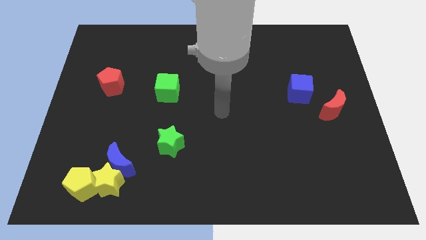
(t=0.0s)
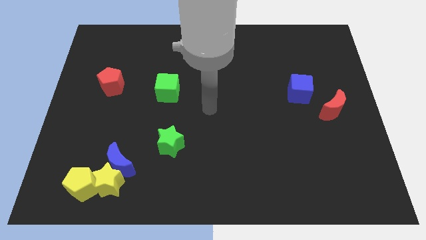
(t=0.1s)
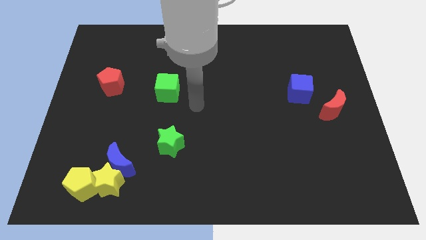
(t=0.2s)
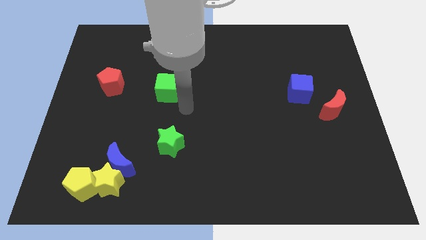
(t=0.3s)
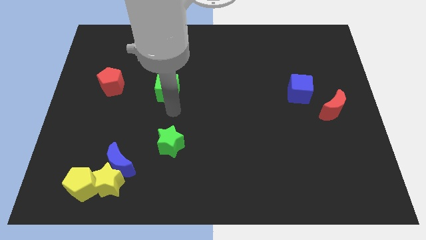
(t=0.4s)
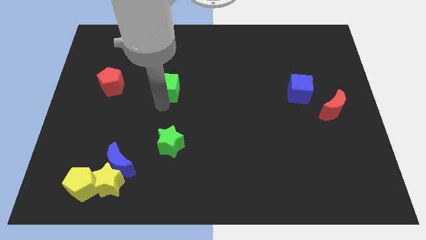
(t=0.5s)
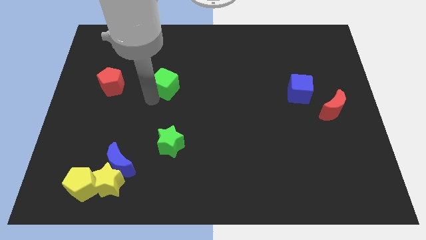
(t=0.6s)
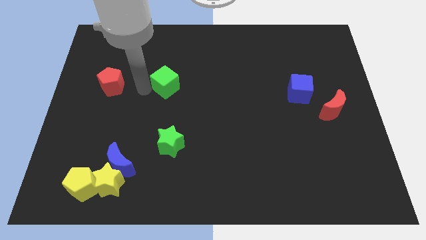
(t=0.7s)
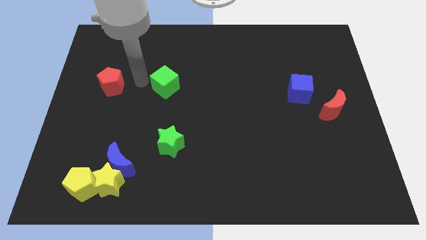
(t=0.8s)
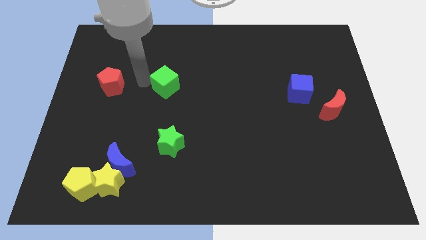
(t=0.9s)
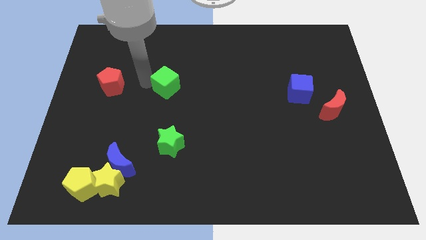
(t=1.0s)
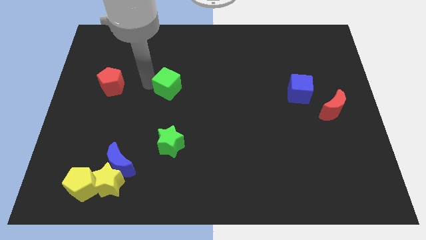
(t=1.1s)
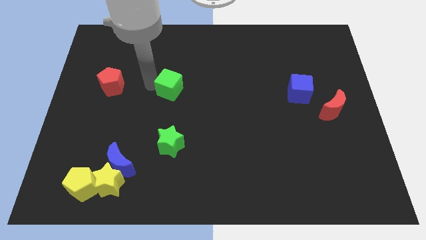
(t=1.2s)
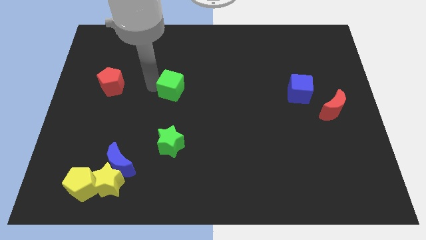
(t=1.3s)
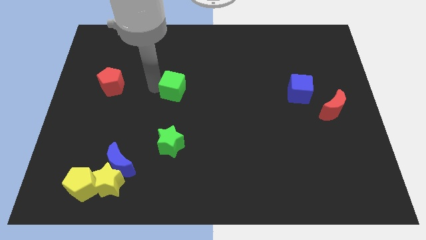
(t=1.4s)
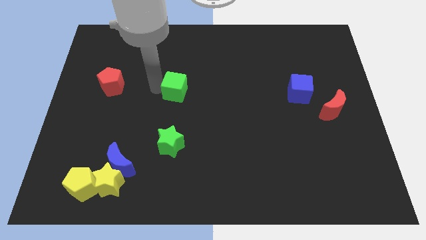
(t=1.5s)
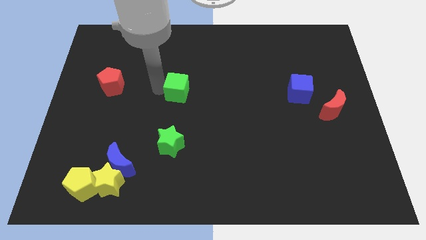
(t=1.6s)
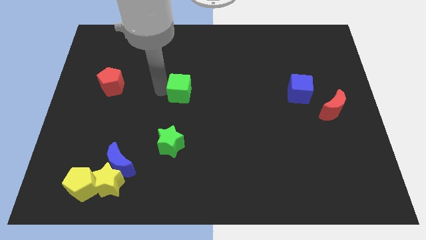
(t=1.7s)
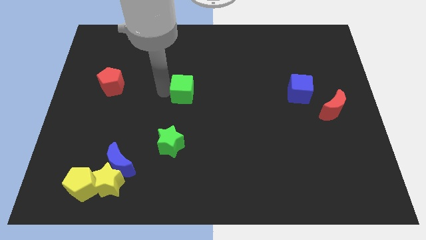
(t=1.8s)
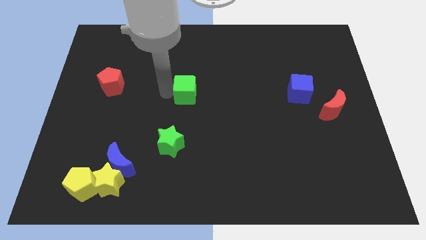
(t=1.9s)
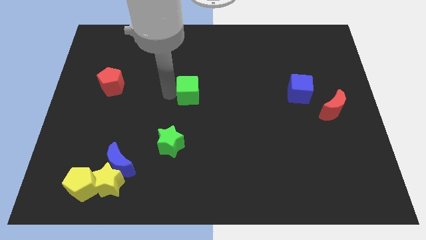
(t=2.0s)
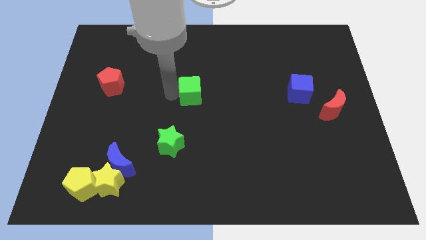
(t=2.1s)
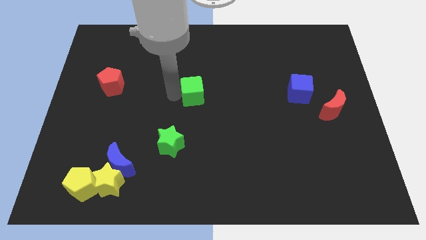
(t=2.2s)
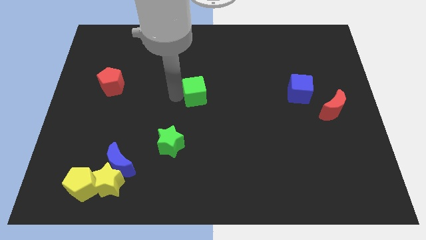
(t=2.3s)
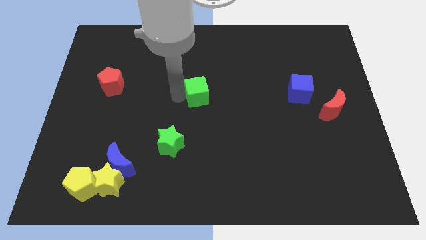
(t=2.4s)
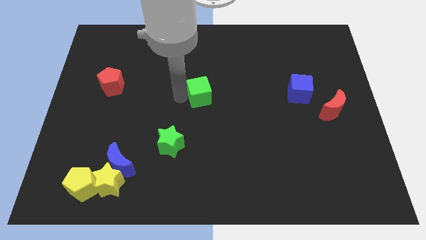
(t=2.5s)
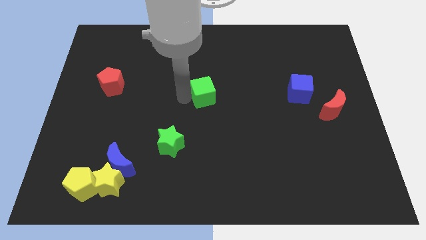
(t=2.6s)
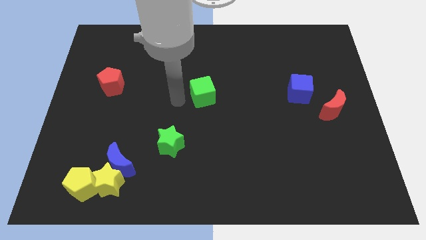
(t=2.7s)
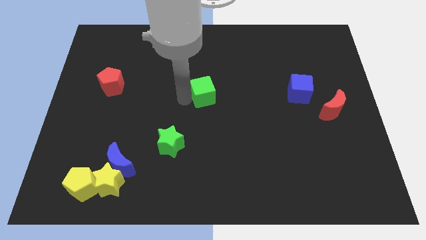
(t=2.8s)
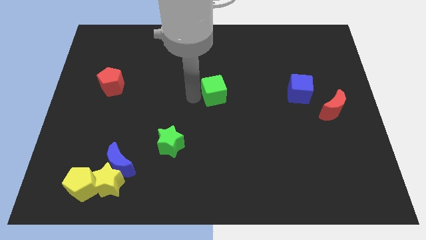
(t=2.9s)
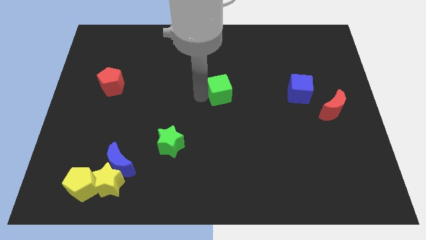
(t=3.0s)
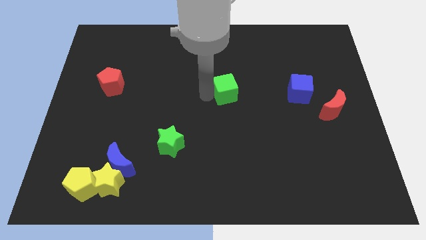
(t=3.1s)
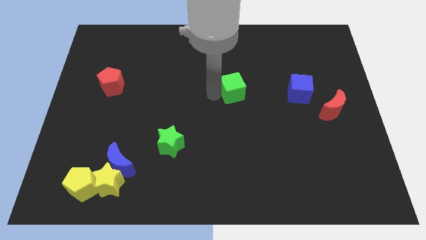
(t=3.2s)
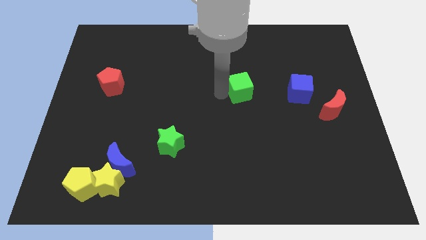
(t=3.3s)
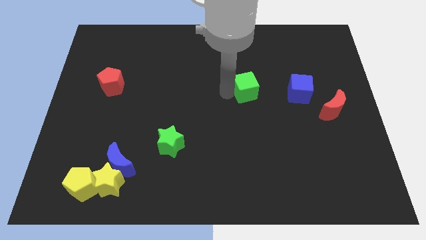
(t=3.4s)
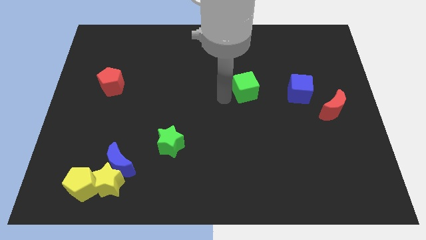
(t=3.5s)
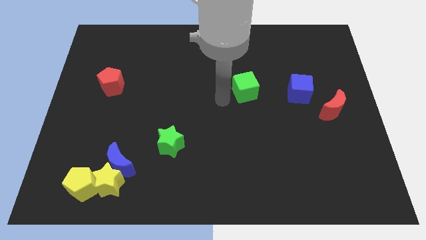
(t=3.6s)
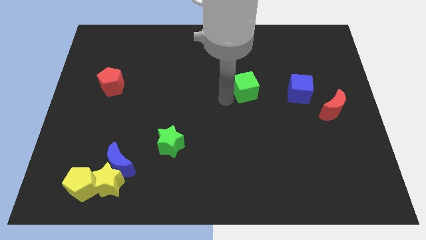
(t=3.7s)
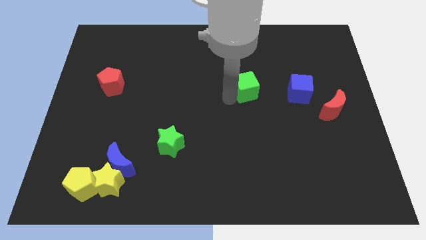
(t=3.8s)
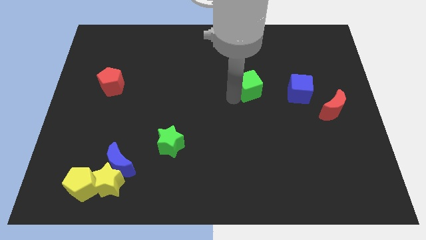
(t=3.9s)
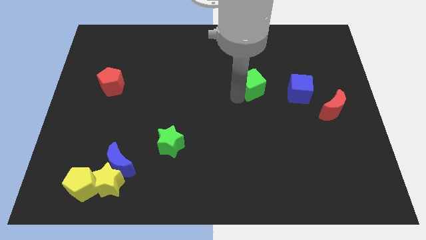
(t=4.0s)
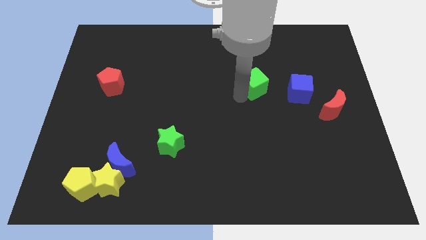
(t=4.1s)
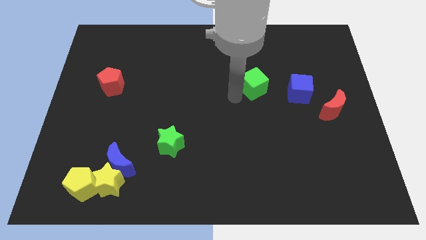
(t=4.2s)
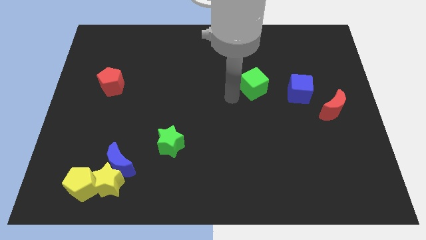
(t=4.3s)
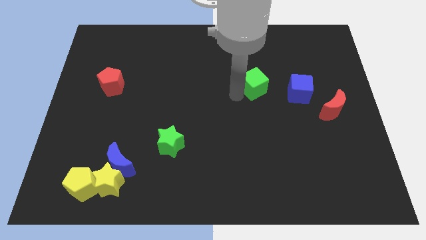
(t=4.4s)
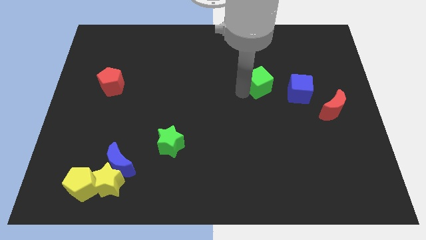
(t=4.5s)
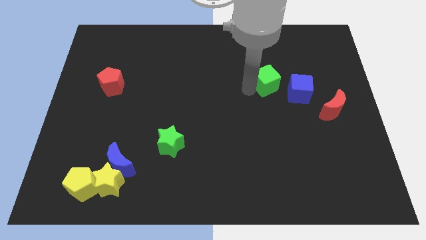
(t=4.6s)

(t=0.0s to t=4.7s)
slide the green cube diagonally up and to the left of the blue cube

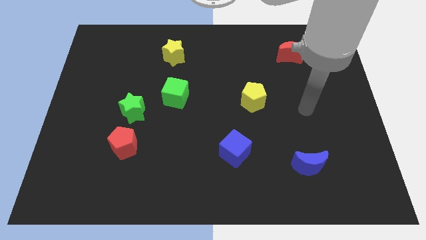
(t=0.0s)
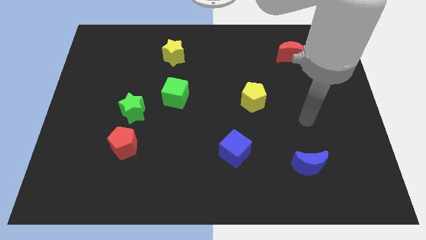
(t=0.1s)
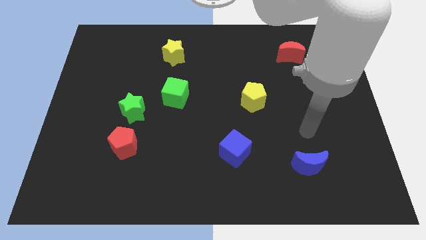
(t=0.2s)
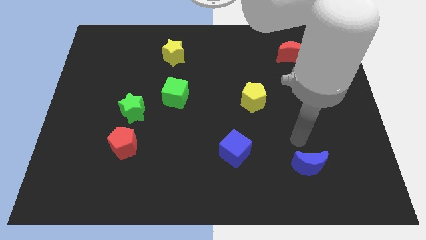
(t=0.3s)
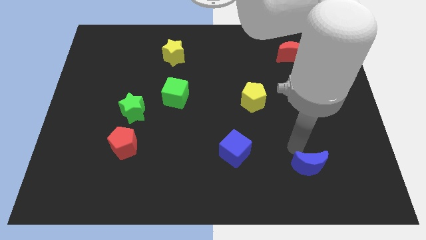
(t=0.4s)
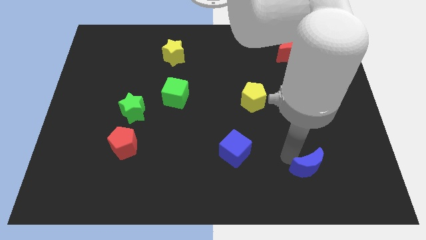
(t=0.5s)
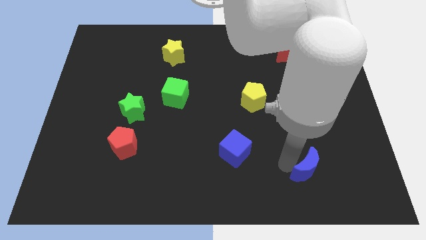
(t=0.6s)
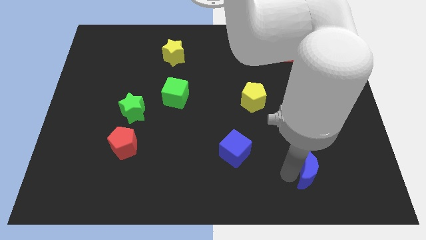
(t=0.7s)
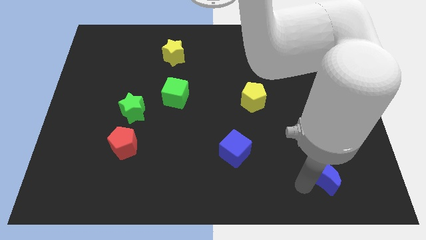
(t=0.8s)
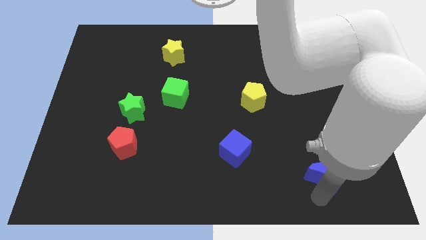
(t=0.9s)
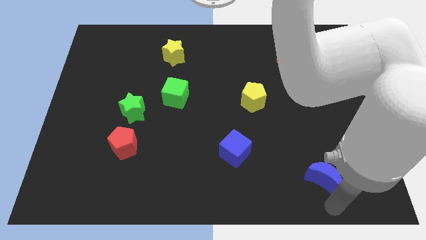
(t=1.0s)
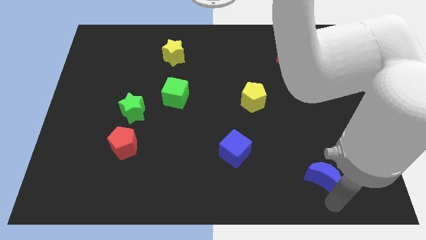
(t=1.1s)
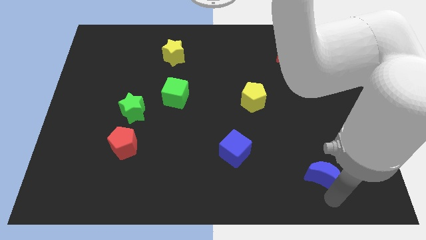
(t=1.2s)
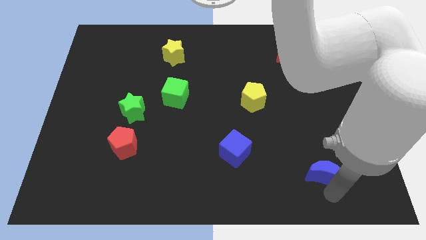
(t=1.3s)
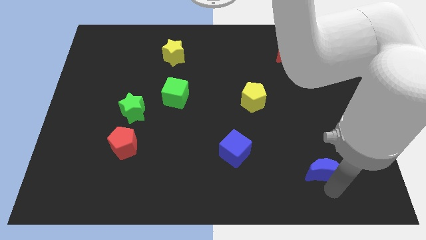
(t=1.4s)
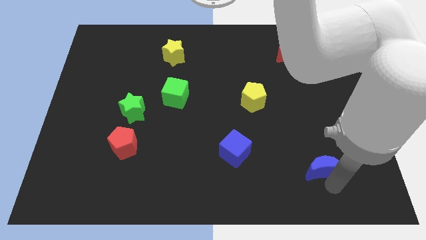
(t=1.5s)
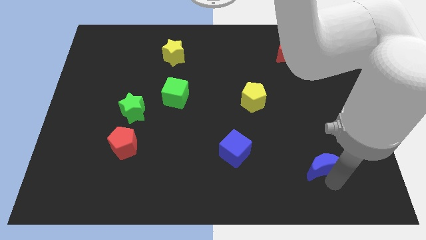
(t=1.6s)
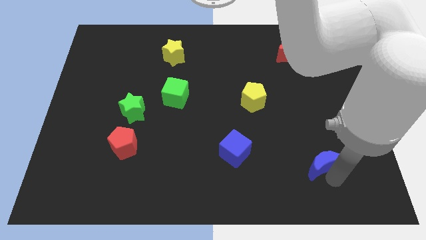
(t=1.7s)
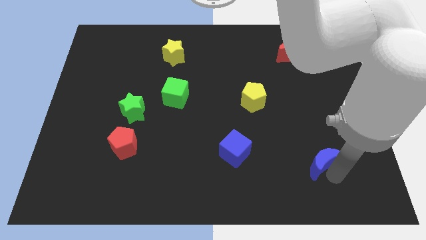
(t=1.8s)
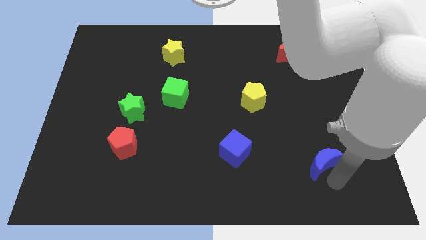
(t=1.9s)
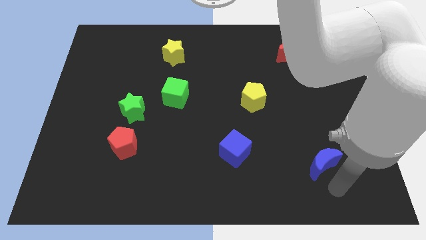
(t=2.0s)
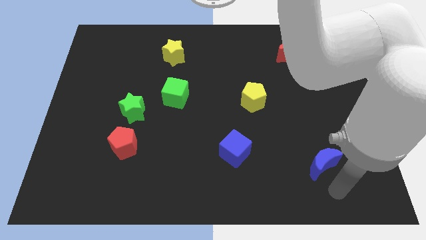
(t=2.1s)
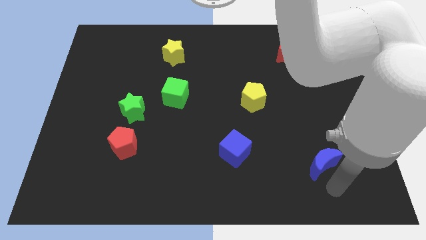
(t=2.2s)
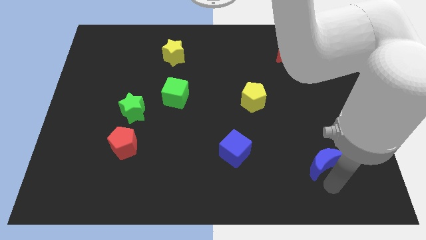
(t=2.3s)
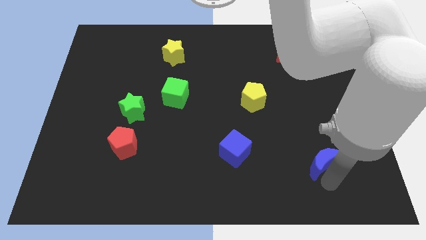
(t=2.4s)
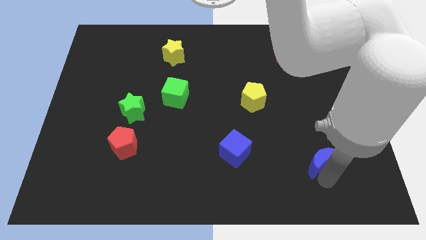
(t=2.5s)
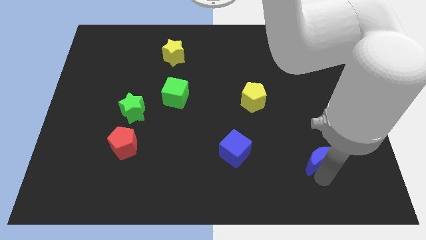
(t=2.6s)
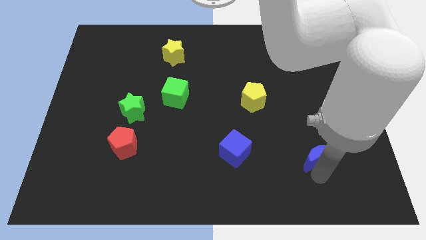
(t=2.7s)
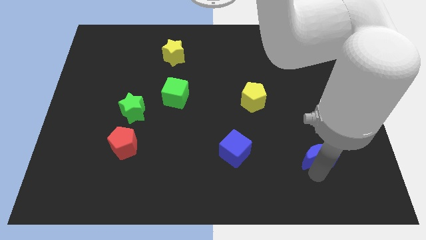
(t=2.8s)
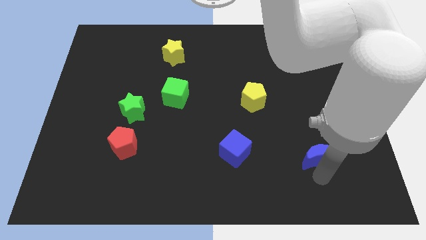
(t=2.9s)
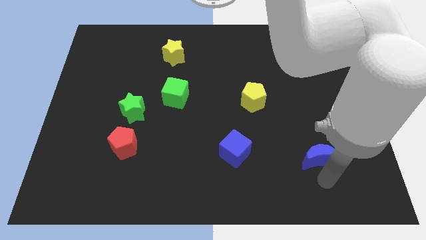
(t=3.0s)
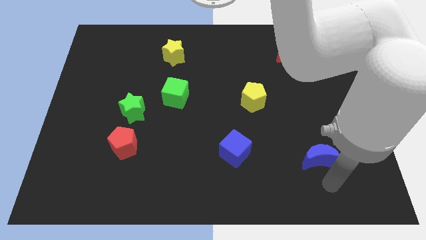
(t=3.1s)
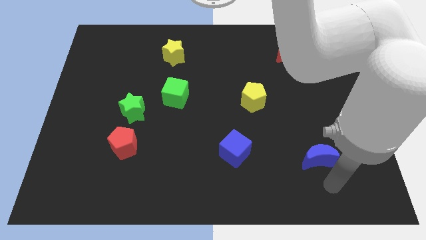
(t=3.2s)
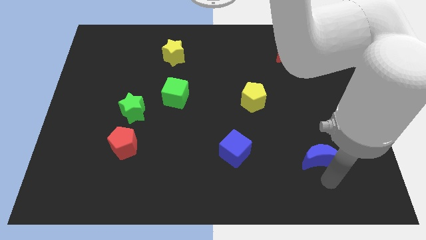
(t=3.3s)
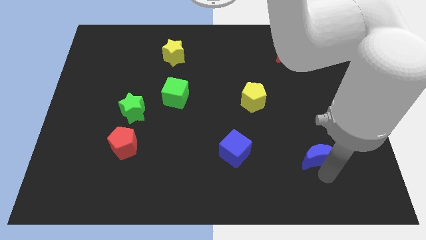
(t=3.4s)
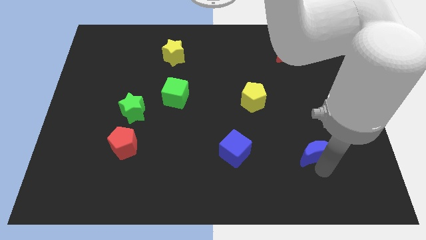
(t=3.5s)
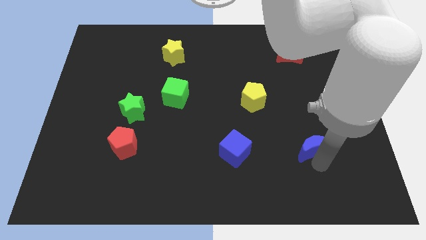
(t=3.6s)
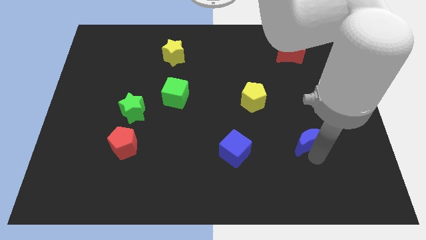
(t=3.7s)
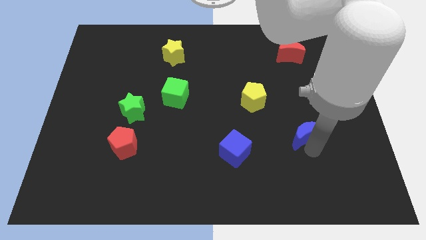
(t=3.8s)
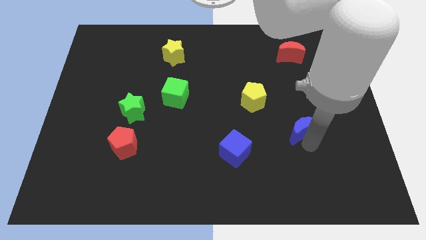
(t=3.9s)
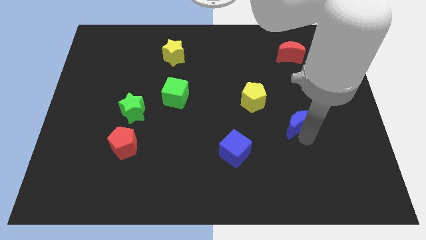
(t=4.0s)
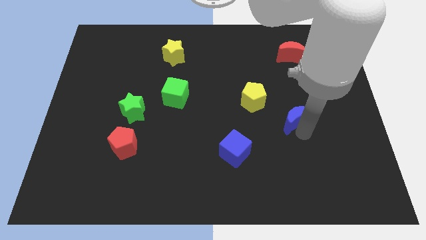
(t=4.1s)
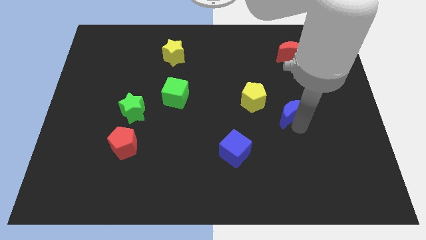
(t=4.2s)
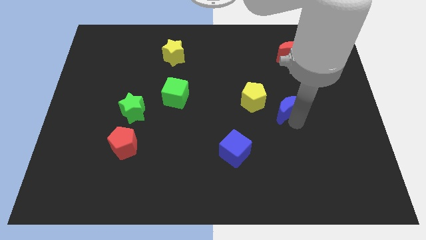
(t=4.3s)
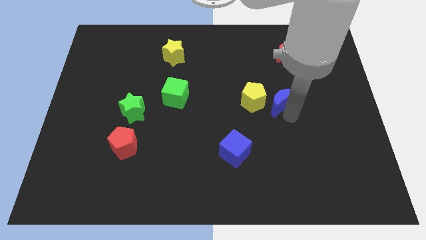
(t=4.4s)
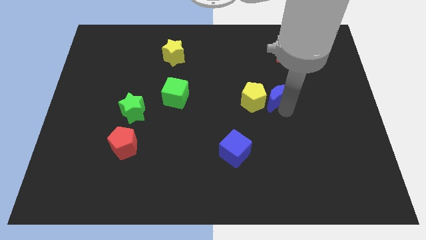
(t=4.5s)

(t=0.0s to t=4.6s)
move the blue moon to the top right side of the yellow pentagon
